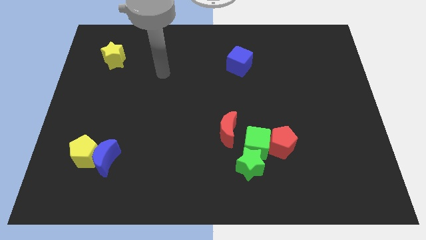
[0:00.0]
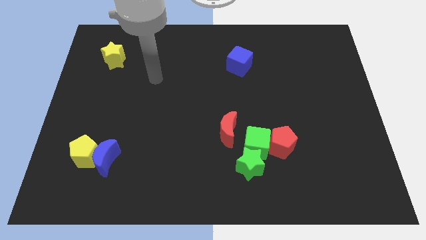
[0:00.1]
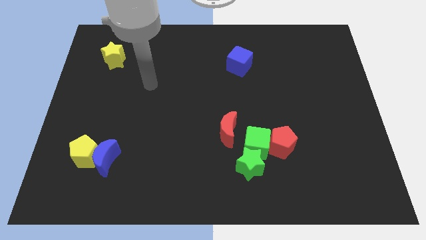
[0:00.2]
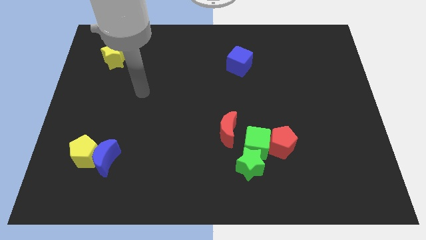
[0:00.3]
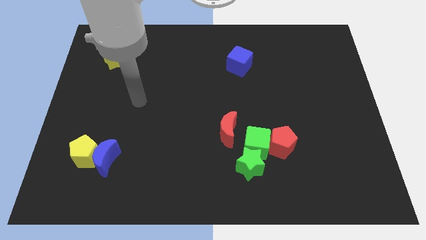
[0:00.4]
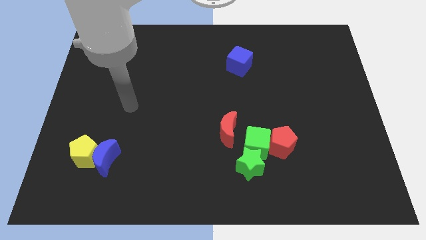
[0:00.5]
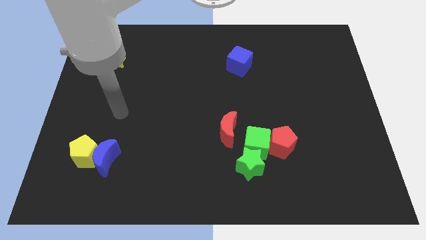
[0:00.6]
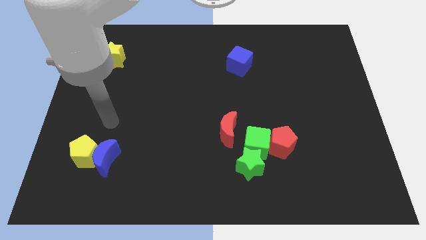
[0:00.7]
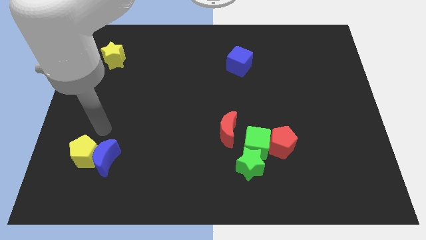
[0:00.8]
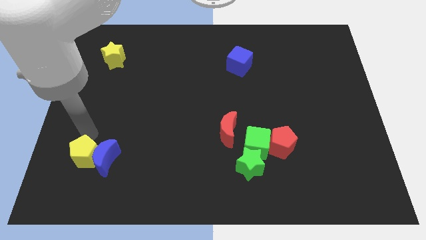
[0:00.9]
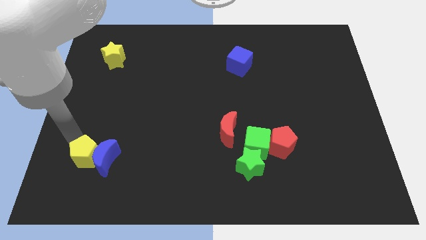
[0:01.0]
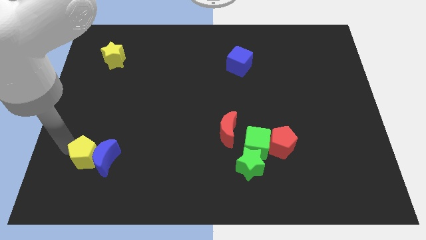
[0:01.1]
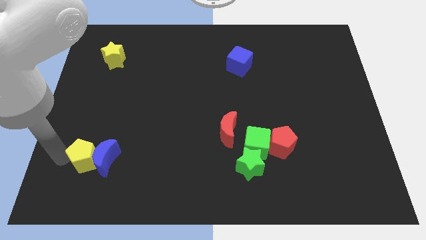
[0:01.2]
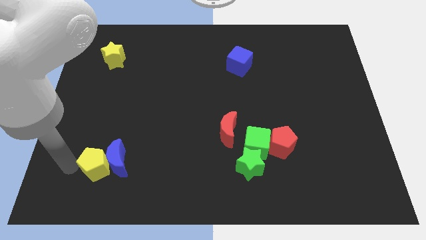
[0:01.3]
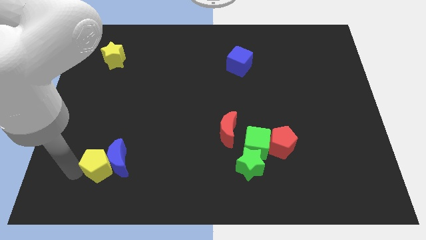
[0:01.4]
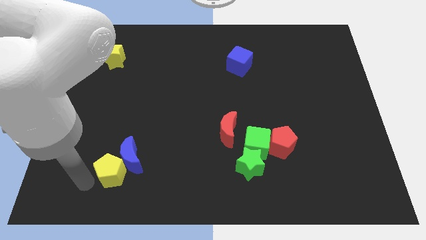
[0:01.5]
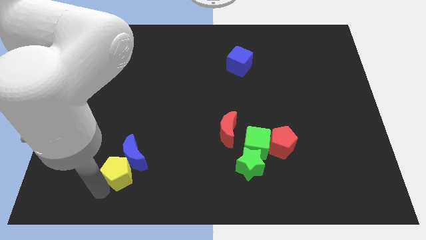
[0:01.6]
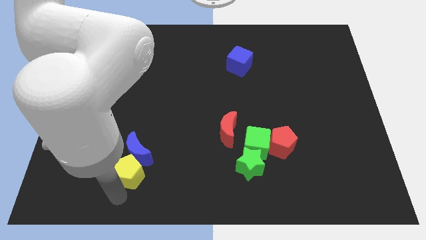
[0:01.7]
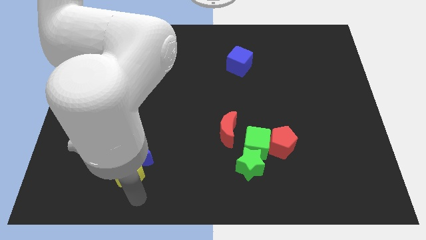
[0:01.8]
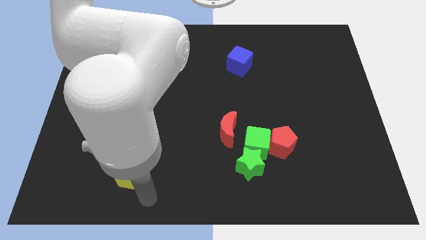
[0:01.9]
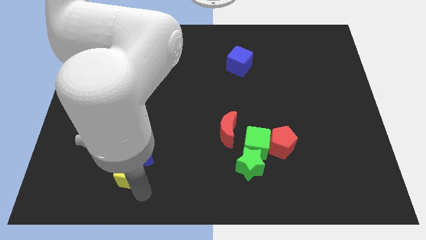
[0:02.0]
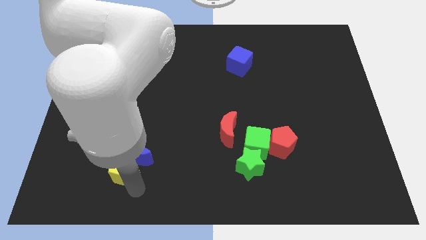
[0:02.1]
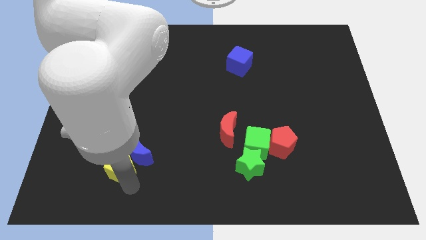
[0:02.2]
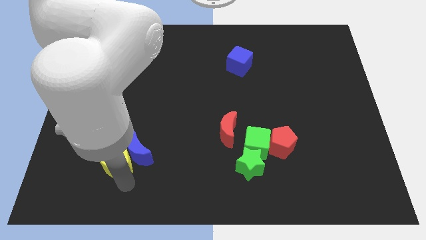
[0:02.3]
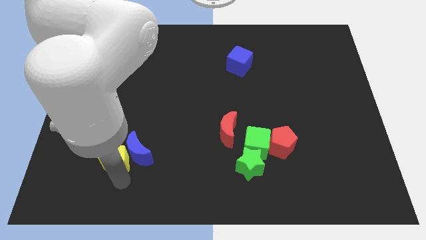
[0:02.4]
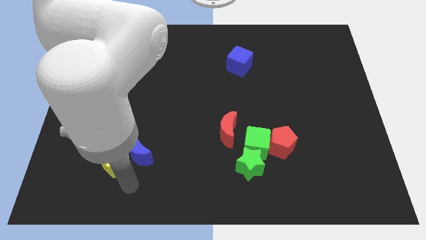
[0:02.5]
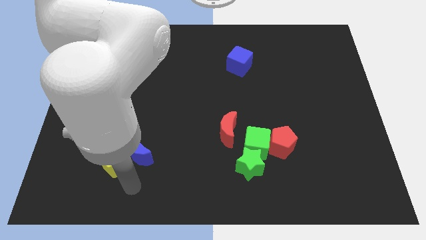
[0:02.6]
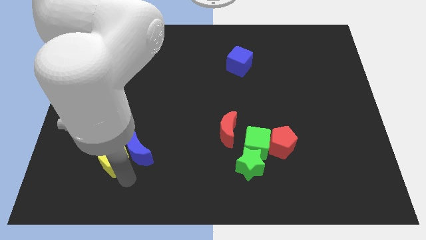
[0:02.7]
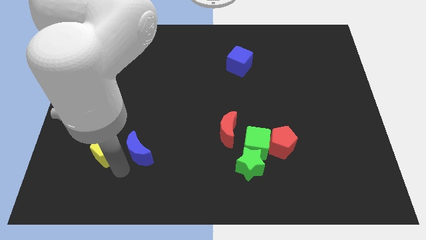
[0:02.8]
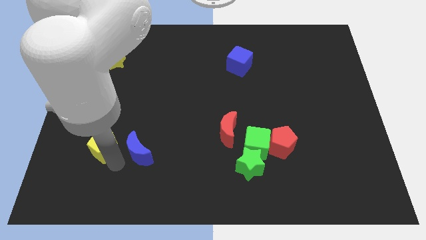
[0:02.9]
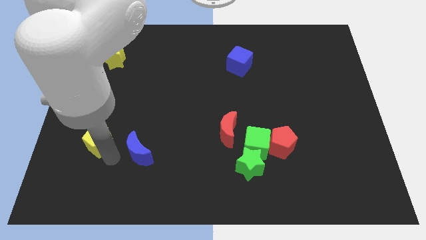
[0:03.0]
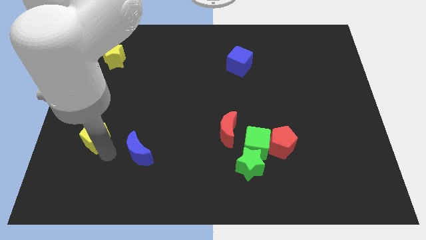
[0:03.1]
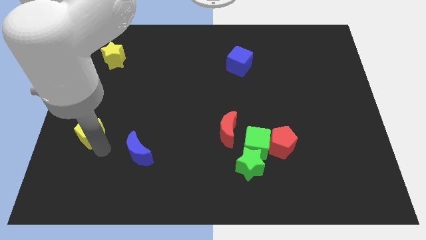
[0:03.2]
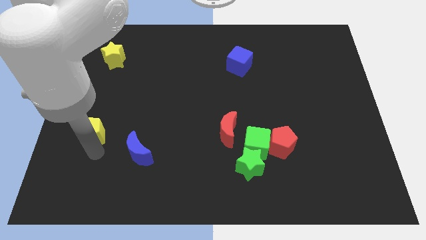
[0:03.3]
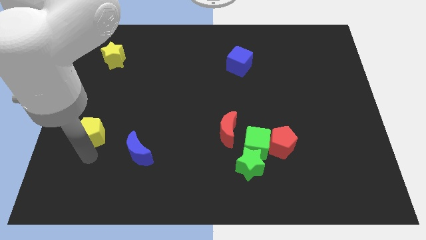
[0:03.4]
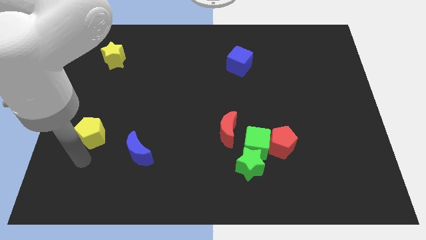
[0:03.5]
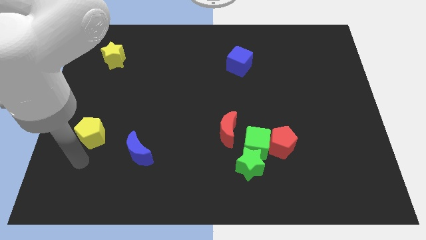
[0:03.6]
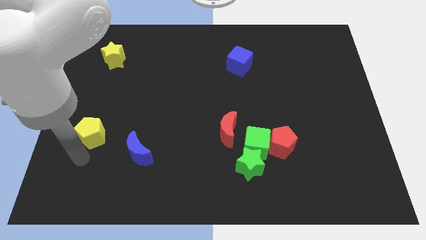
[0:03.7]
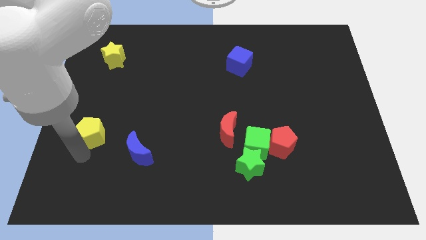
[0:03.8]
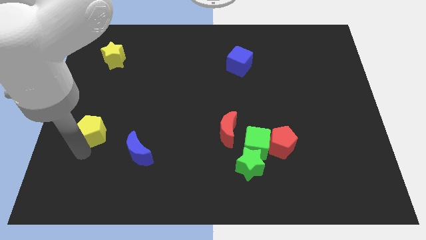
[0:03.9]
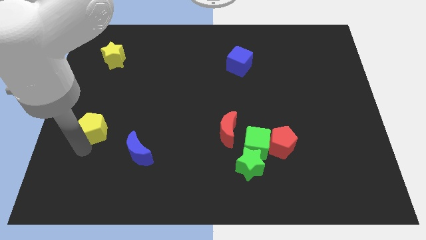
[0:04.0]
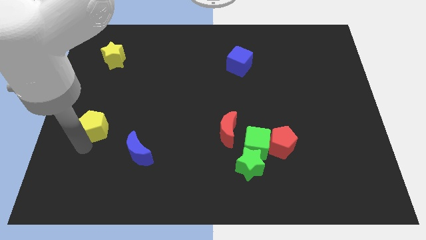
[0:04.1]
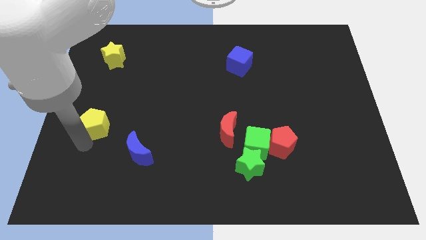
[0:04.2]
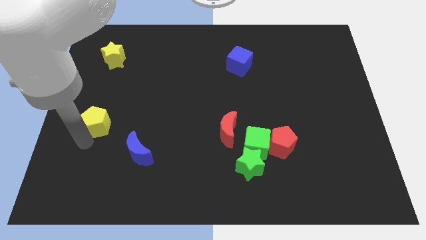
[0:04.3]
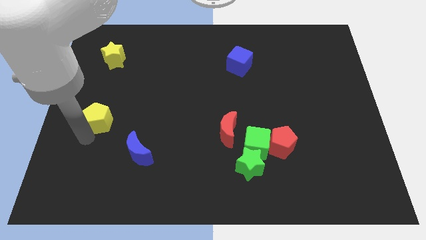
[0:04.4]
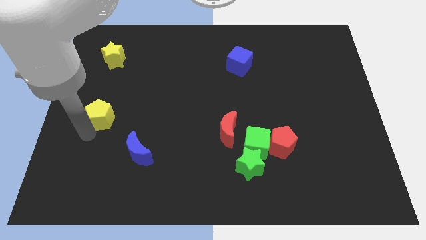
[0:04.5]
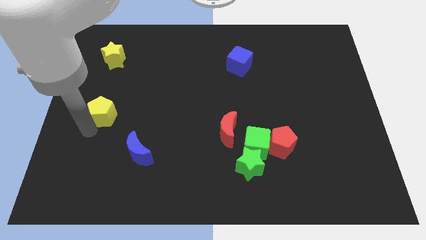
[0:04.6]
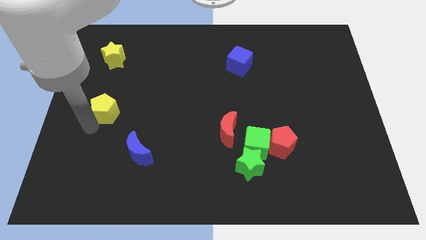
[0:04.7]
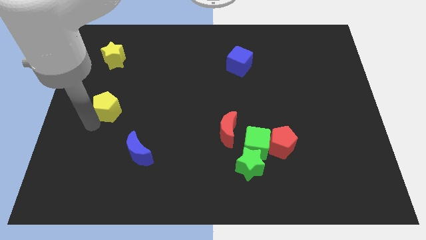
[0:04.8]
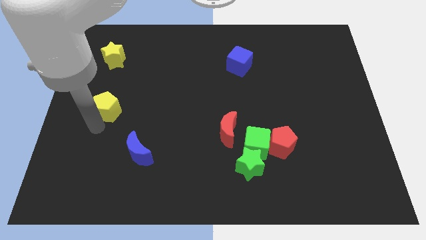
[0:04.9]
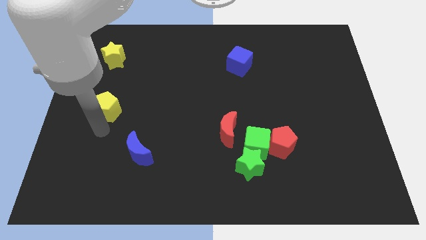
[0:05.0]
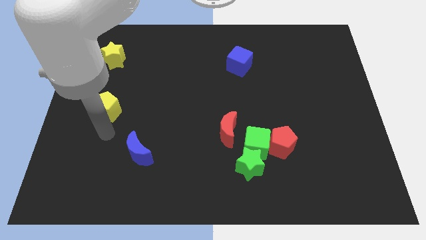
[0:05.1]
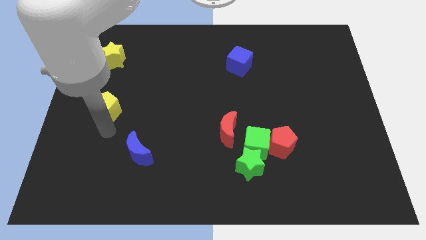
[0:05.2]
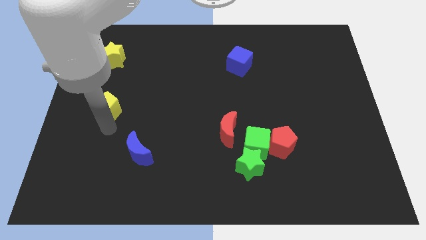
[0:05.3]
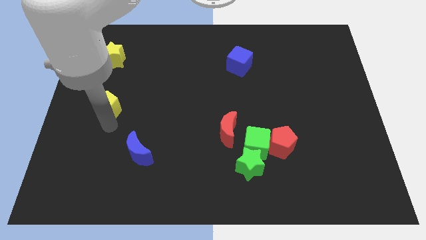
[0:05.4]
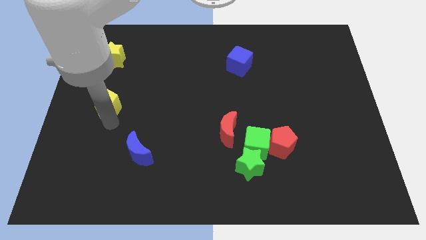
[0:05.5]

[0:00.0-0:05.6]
move the yellow pentagon below the yellow star
